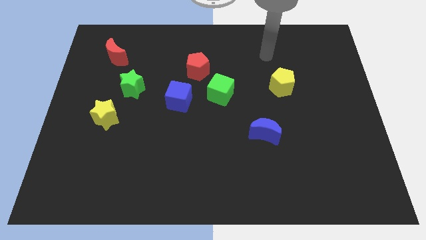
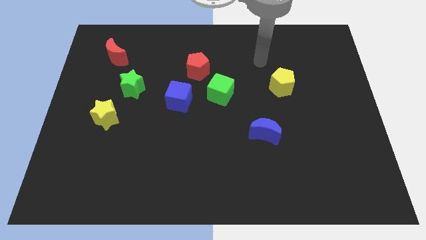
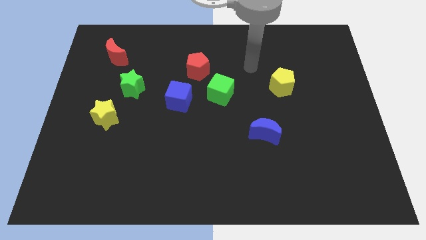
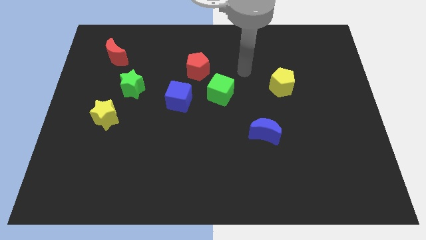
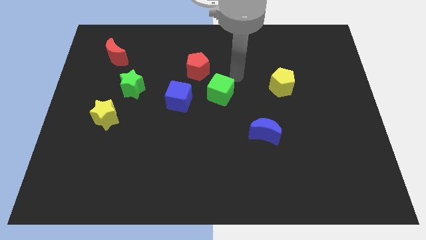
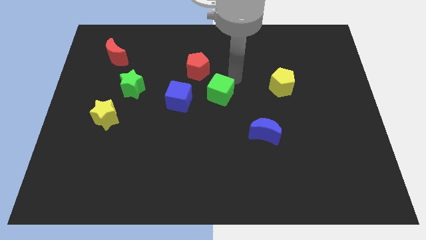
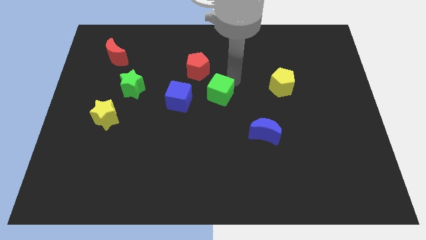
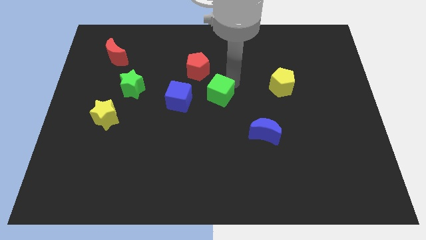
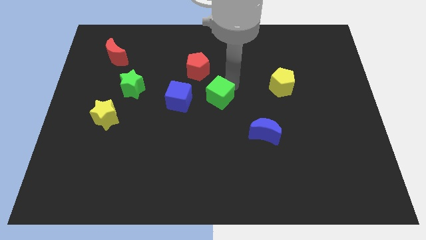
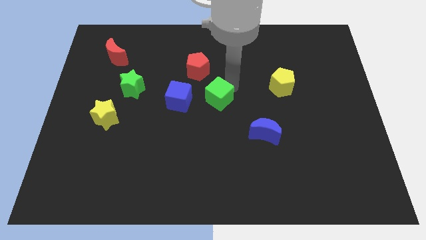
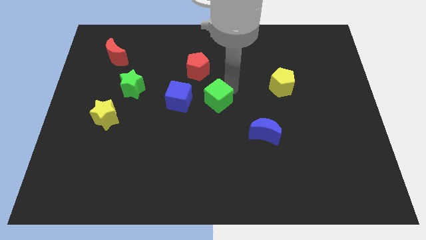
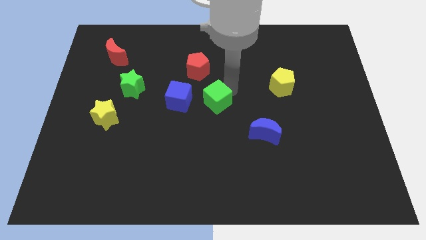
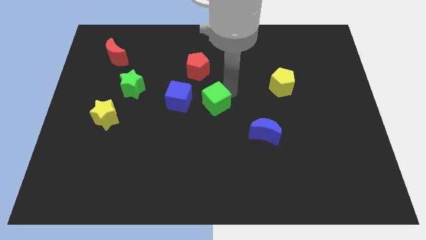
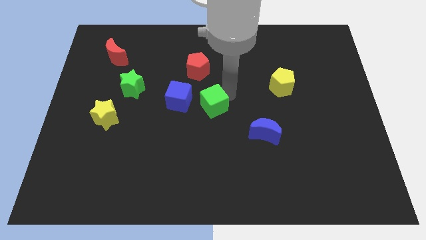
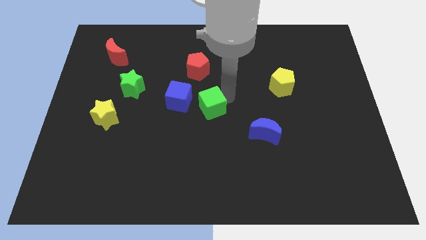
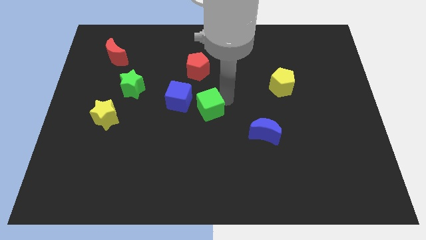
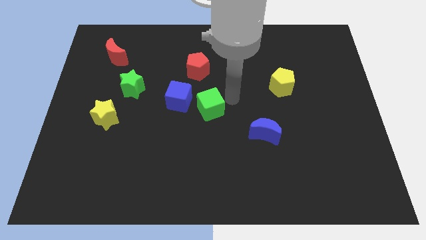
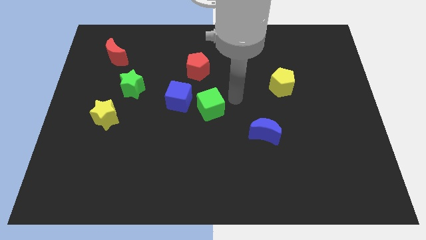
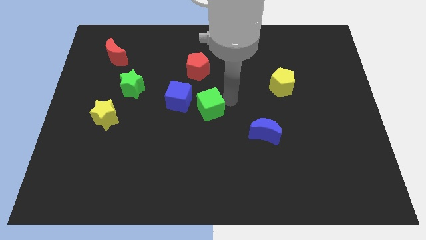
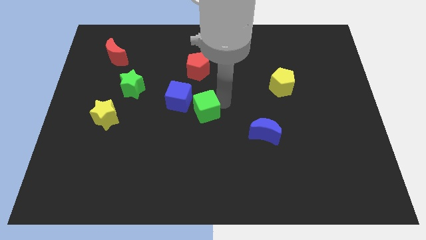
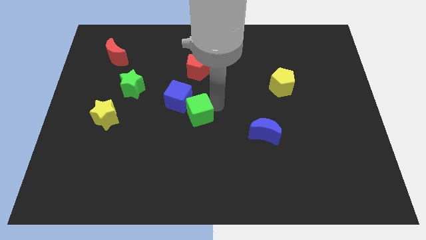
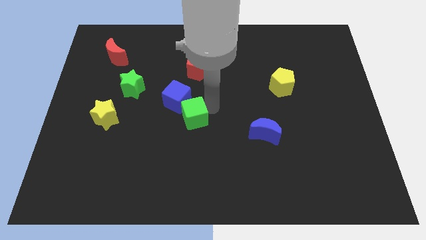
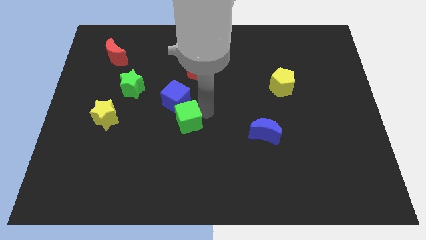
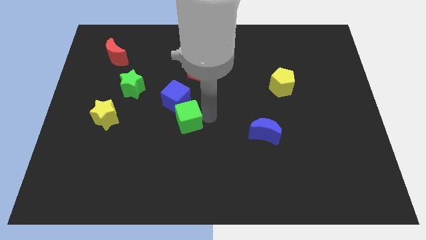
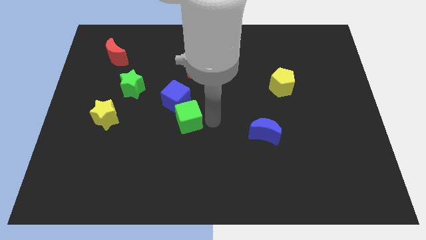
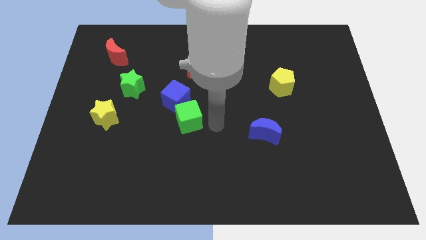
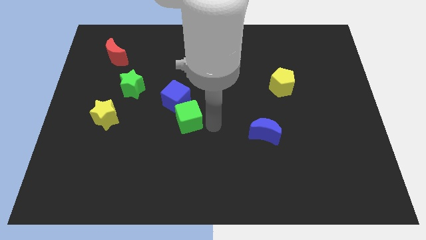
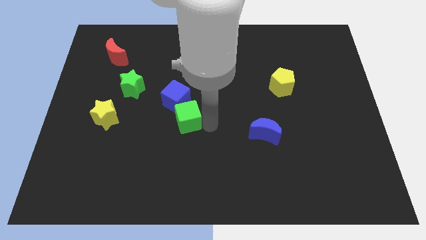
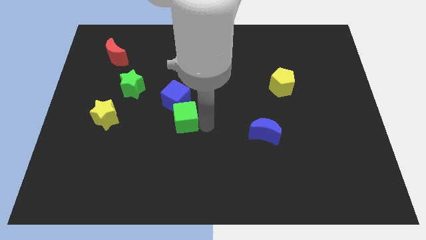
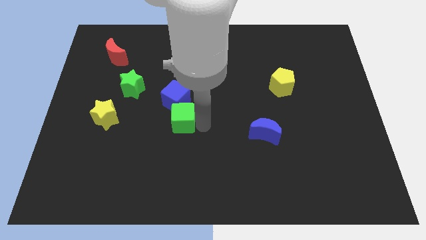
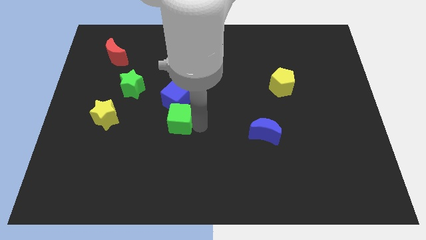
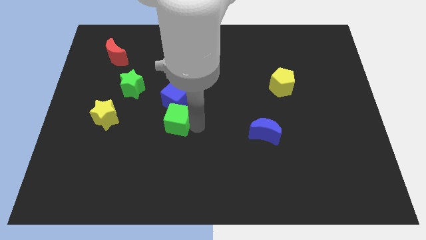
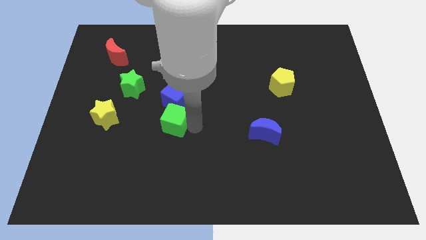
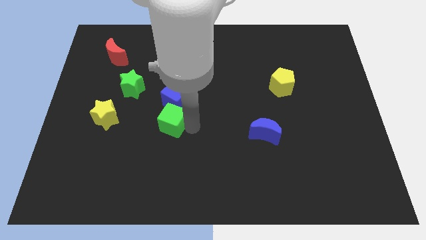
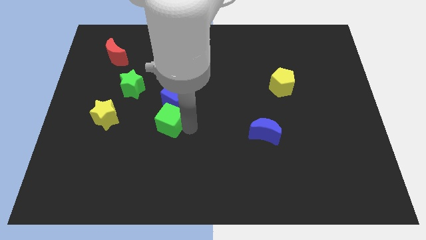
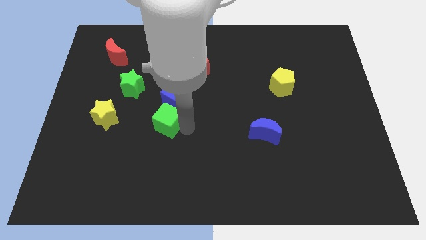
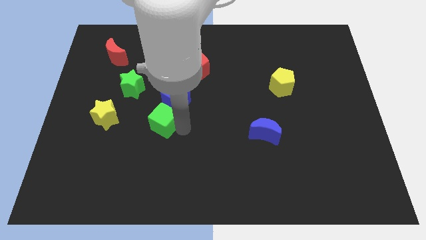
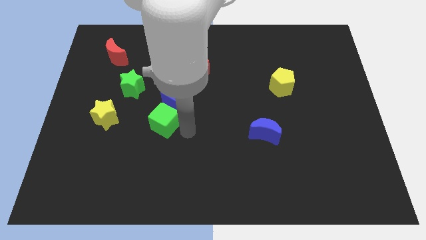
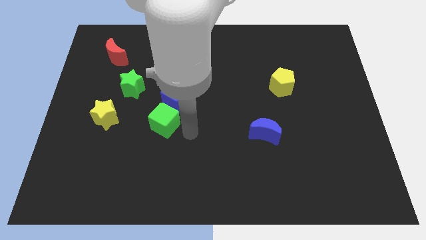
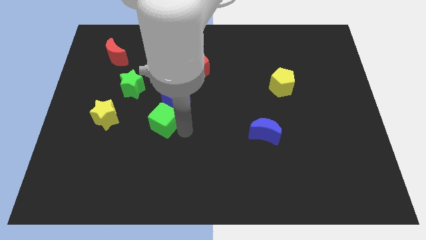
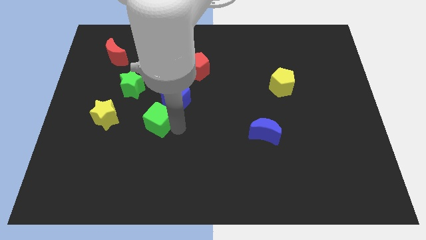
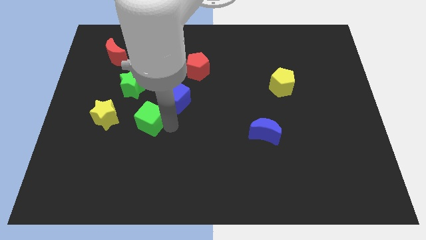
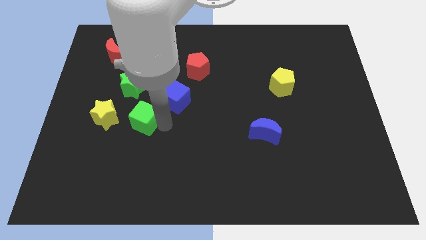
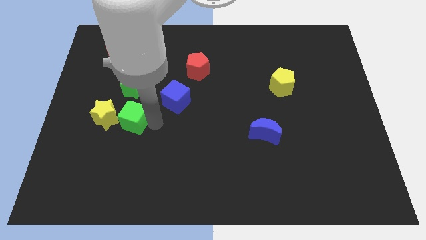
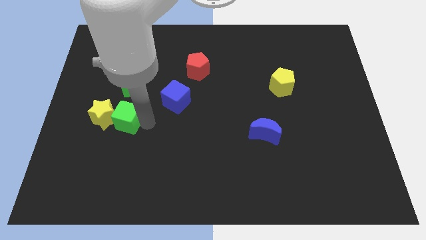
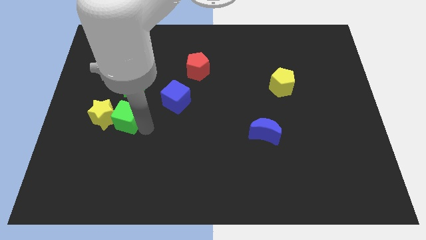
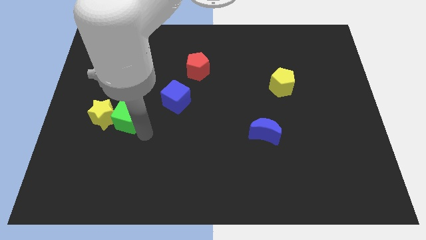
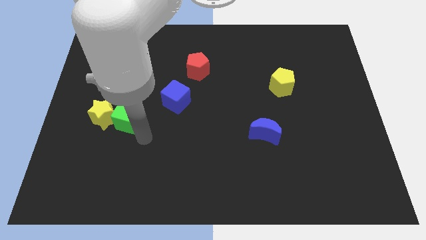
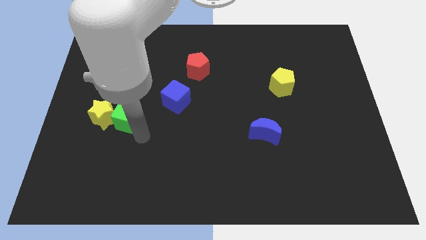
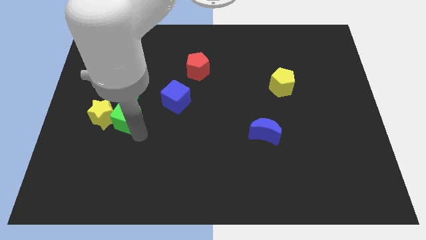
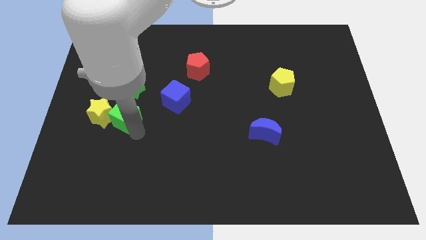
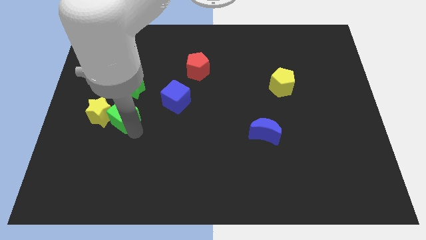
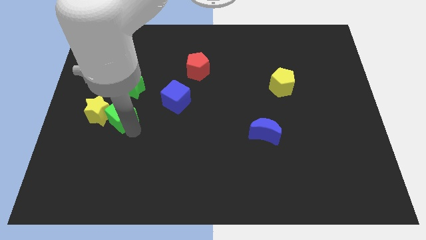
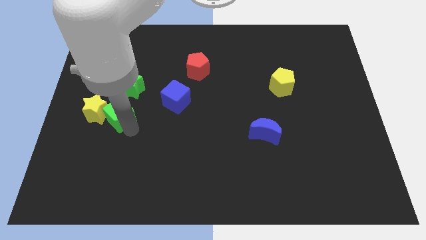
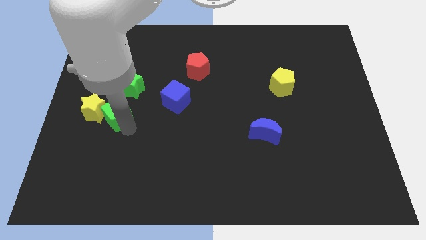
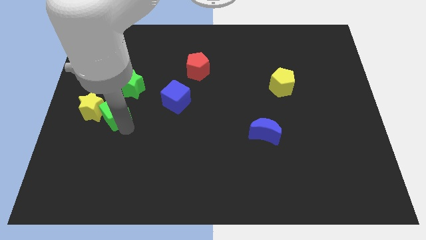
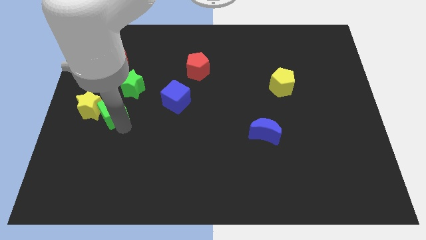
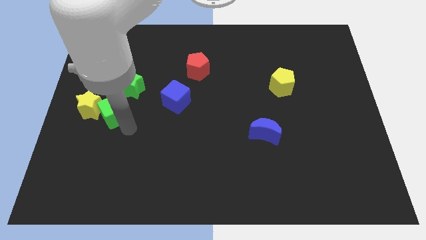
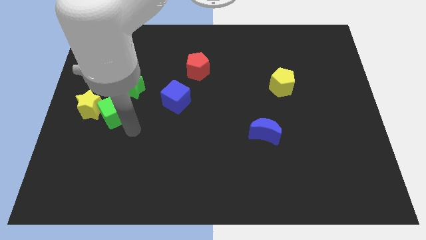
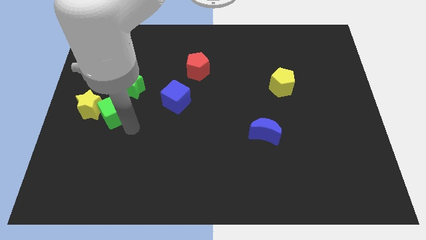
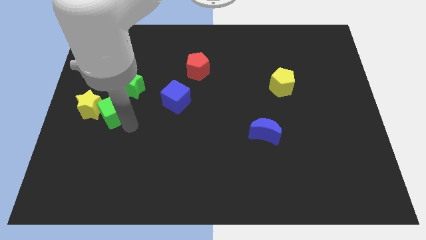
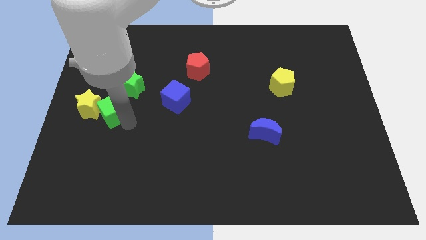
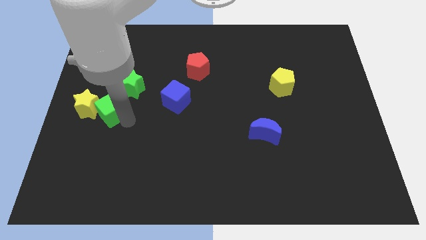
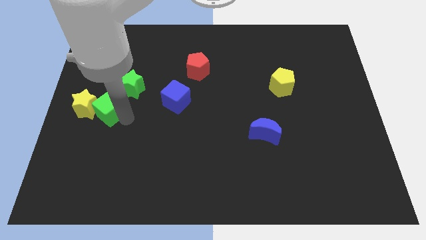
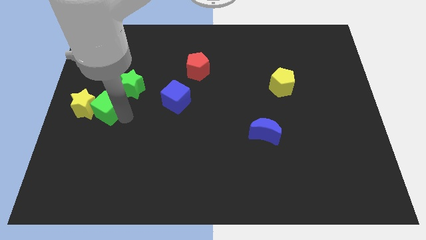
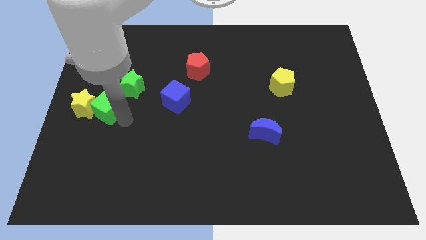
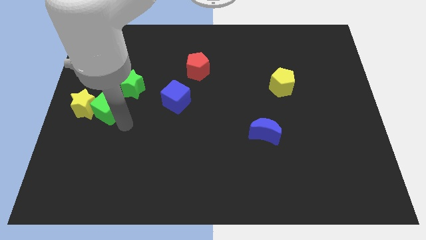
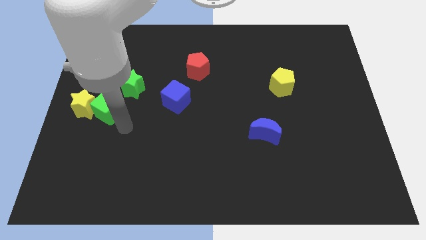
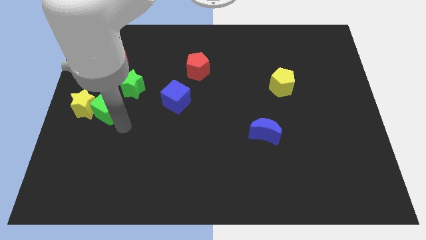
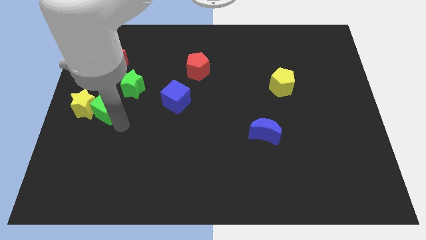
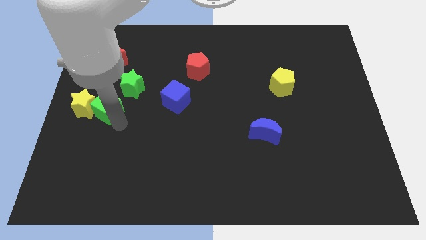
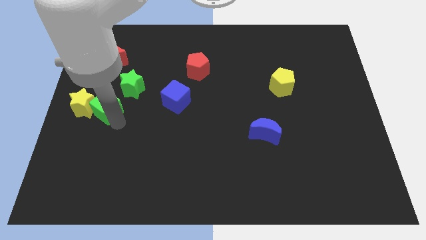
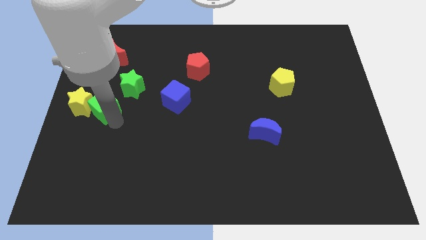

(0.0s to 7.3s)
put the green cube to the center left
